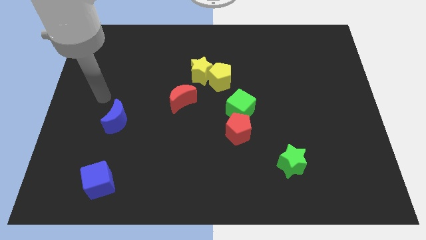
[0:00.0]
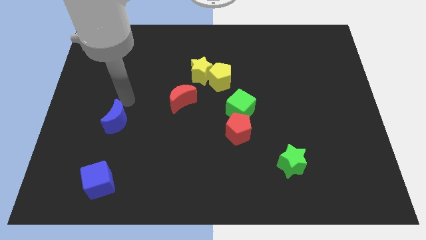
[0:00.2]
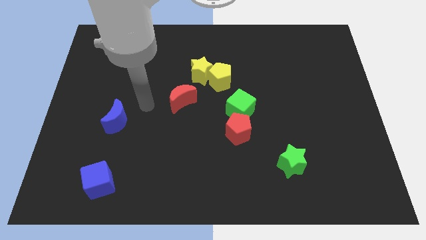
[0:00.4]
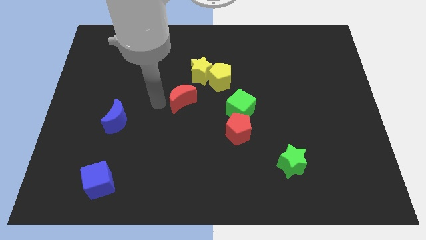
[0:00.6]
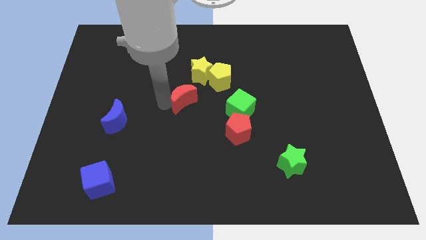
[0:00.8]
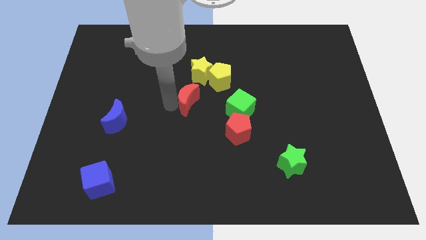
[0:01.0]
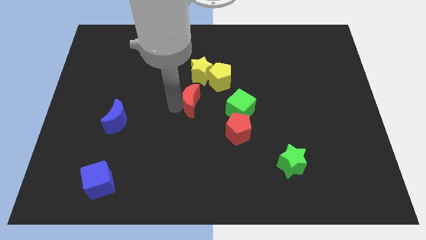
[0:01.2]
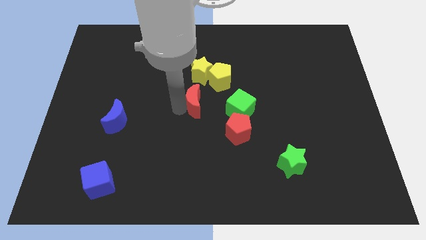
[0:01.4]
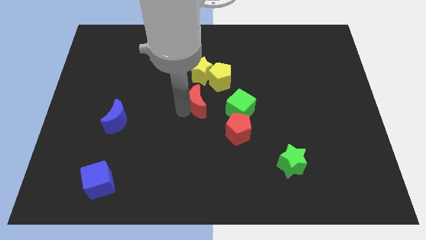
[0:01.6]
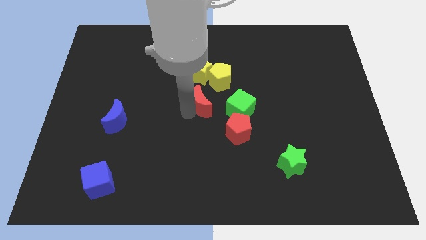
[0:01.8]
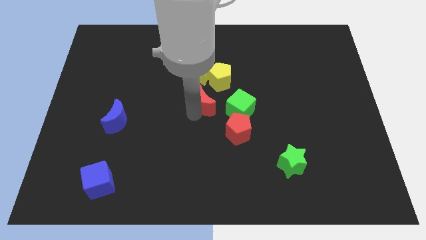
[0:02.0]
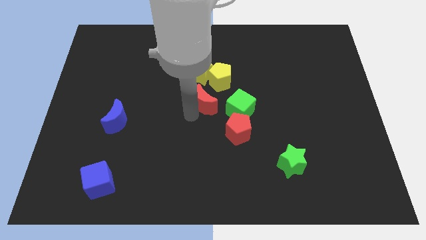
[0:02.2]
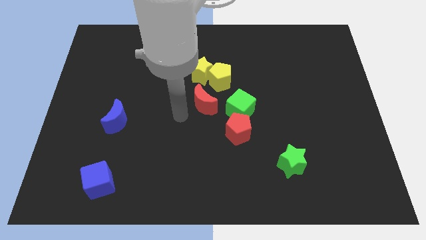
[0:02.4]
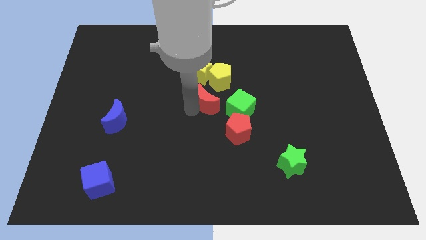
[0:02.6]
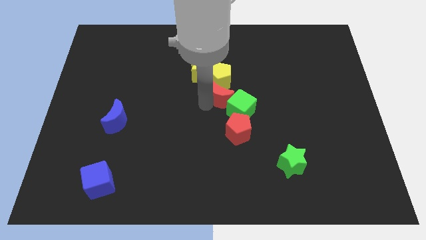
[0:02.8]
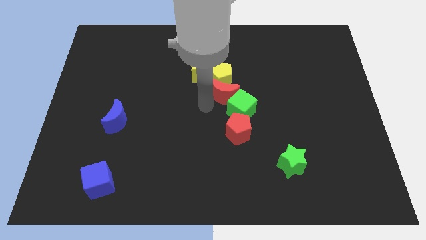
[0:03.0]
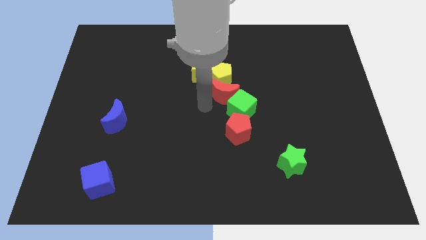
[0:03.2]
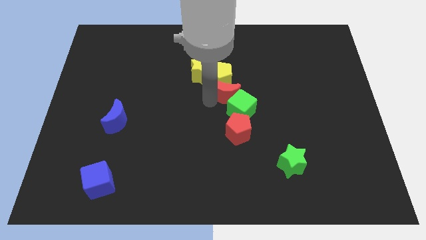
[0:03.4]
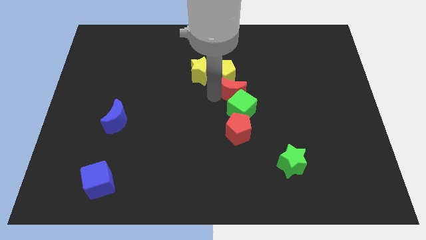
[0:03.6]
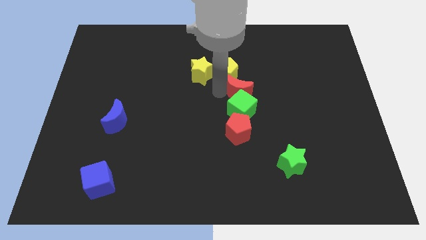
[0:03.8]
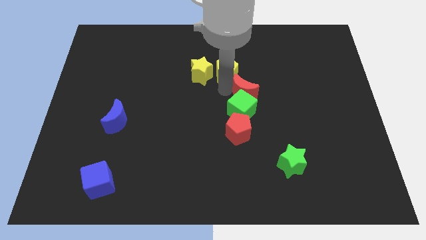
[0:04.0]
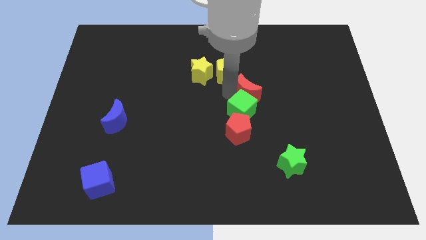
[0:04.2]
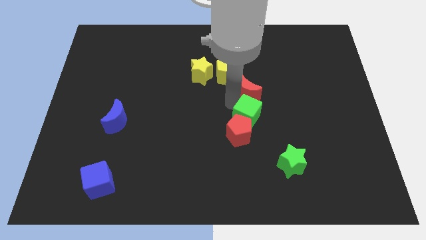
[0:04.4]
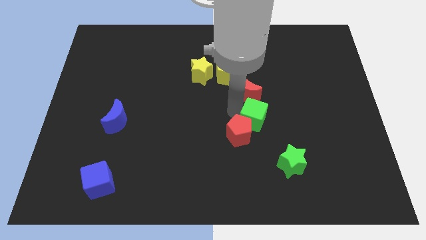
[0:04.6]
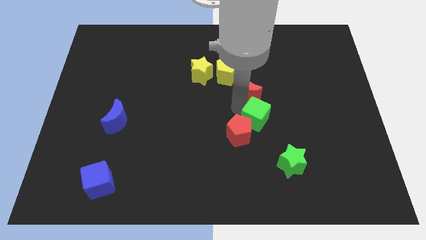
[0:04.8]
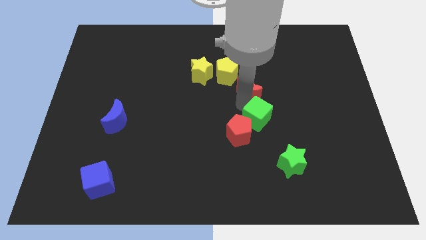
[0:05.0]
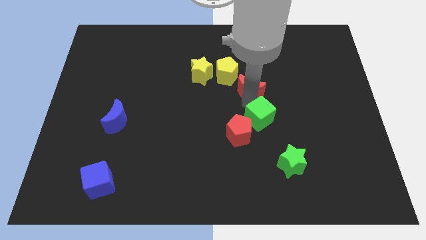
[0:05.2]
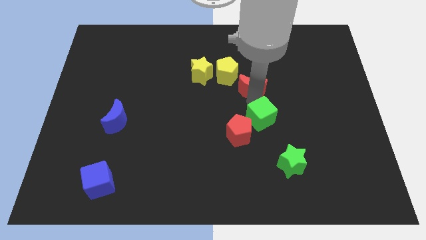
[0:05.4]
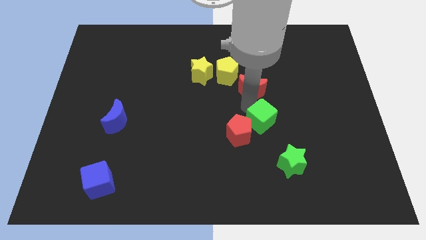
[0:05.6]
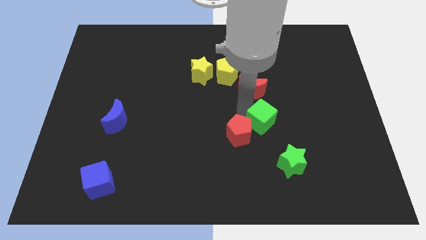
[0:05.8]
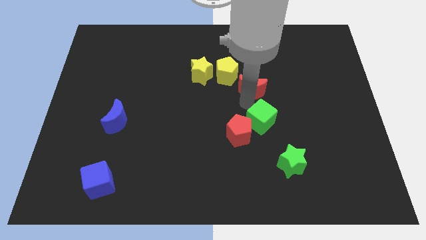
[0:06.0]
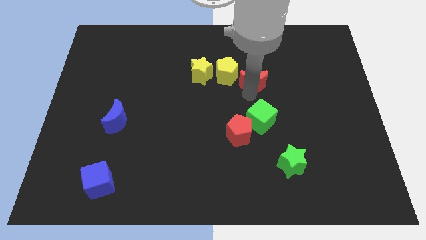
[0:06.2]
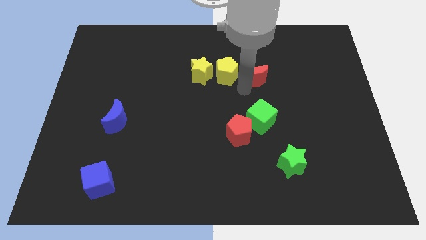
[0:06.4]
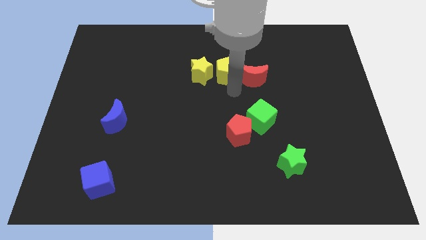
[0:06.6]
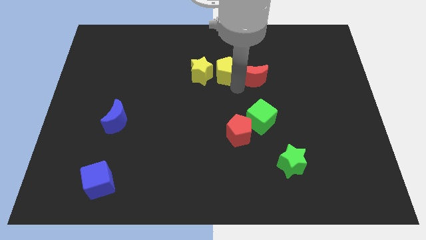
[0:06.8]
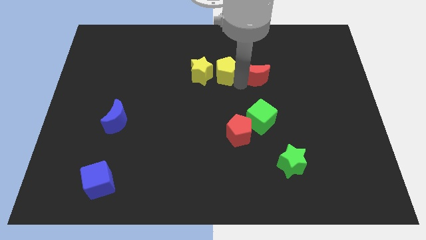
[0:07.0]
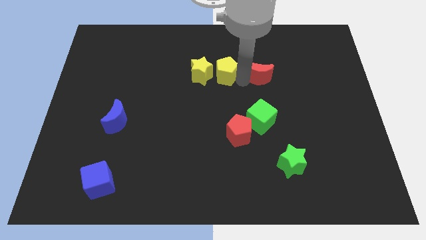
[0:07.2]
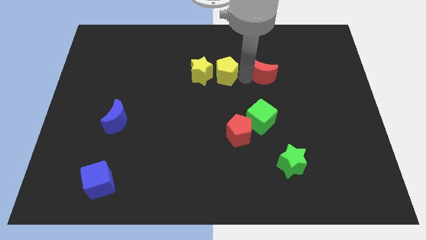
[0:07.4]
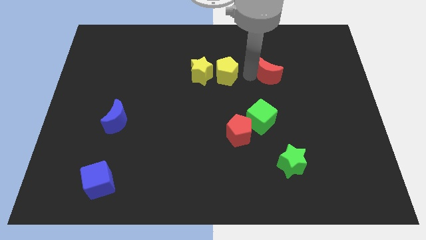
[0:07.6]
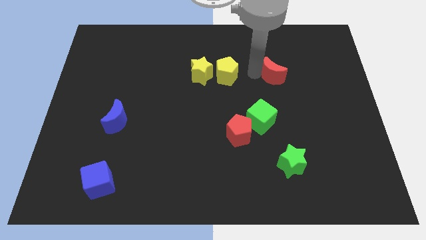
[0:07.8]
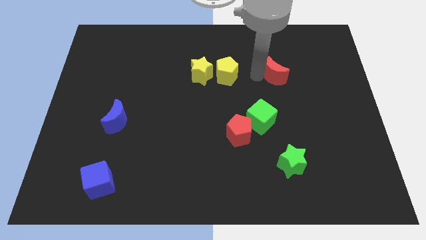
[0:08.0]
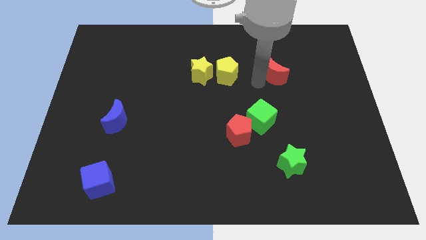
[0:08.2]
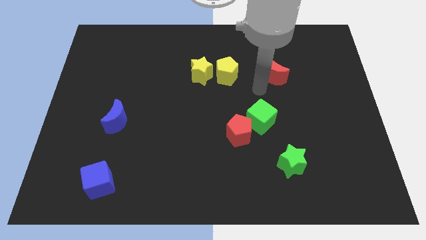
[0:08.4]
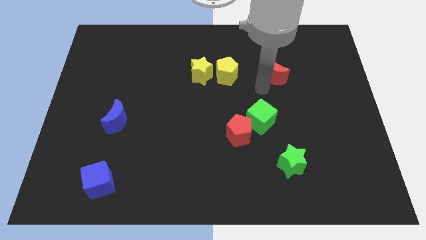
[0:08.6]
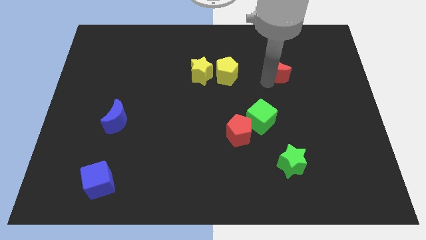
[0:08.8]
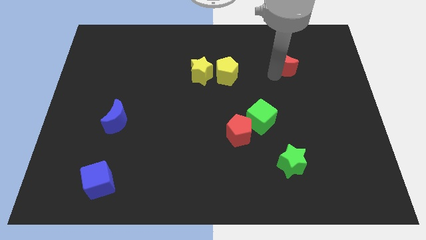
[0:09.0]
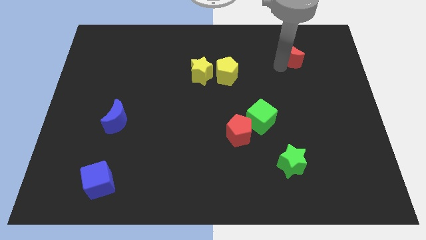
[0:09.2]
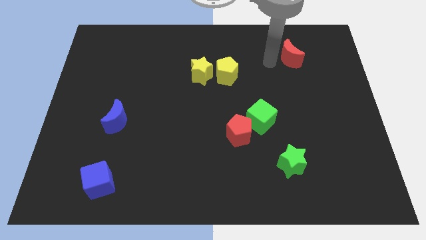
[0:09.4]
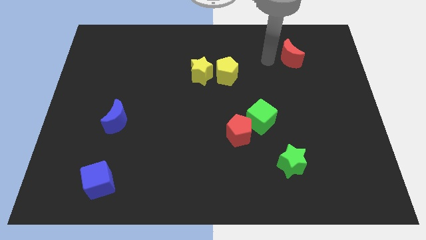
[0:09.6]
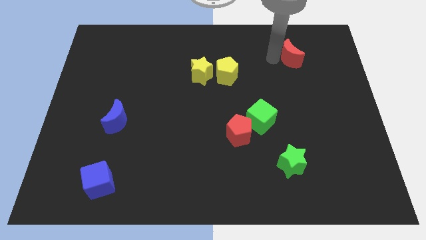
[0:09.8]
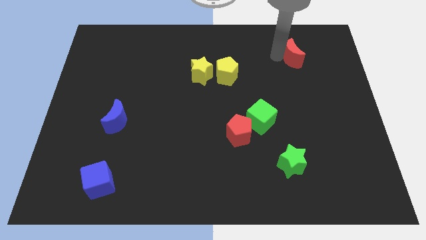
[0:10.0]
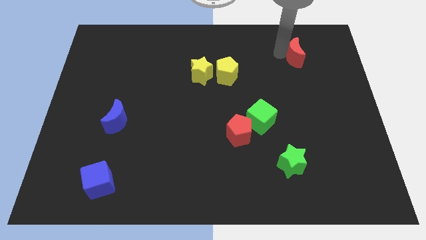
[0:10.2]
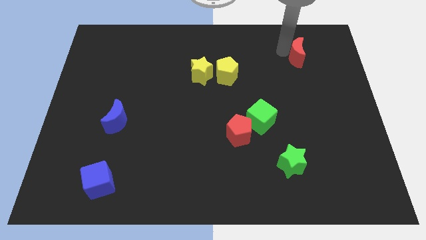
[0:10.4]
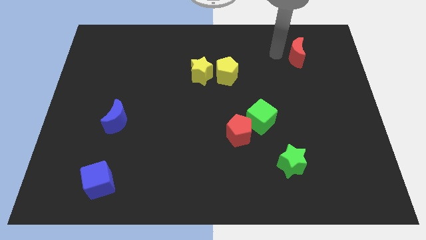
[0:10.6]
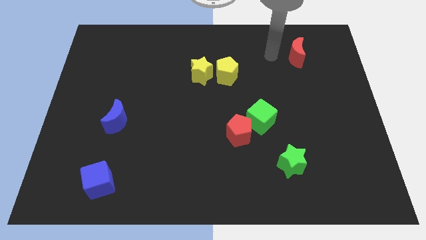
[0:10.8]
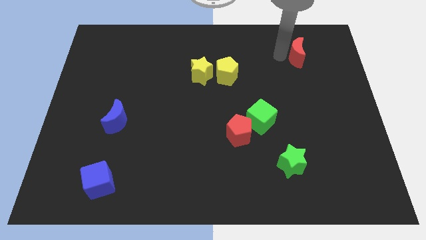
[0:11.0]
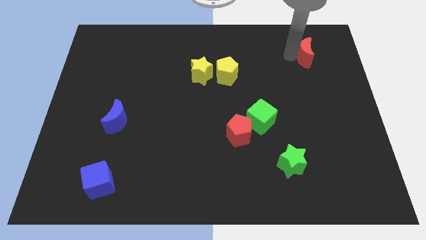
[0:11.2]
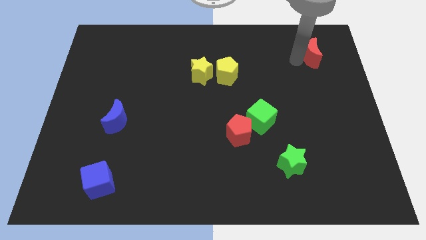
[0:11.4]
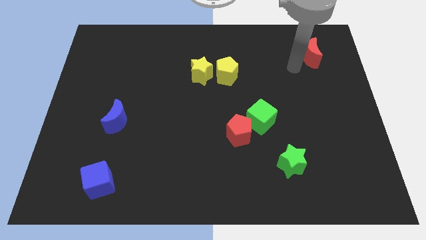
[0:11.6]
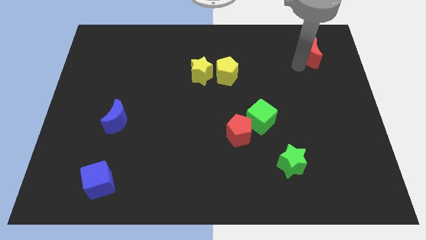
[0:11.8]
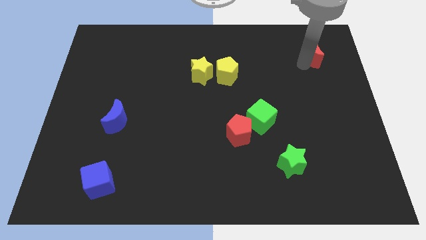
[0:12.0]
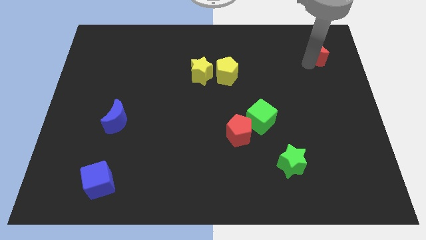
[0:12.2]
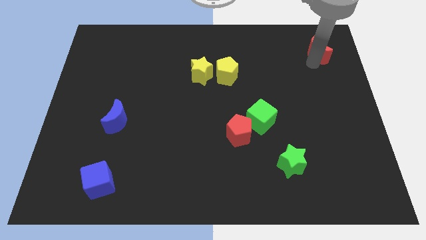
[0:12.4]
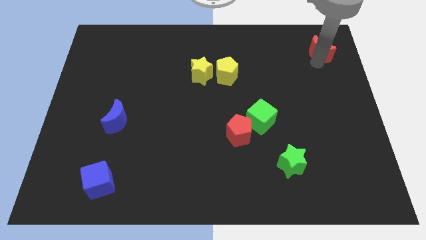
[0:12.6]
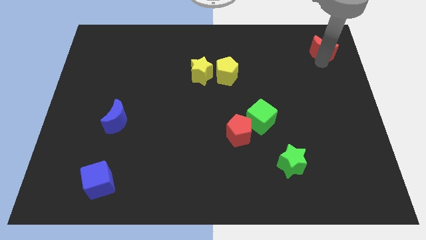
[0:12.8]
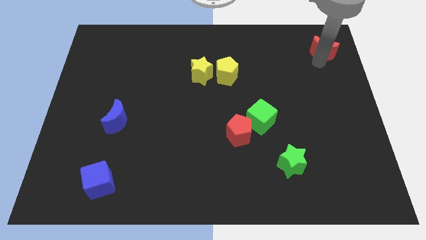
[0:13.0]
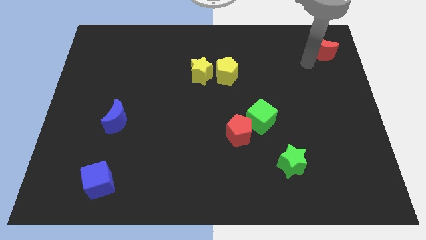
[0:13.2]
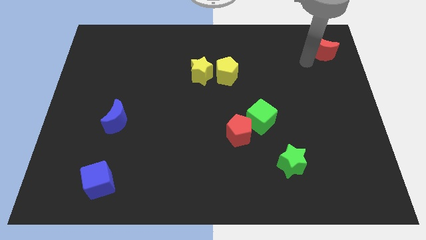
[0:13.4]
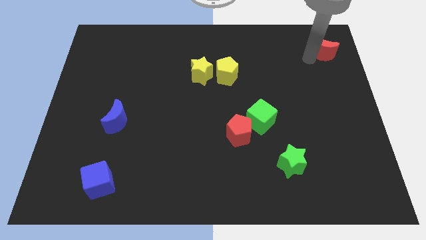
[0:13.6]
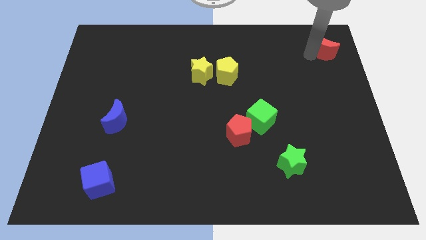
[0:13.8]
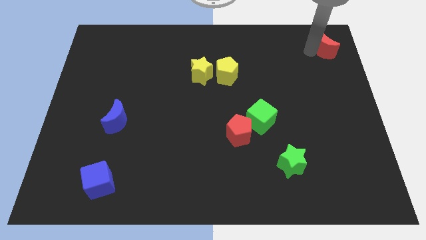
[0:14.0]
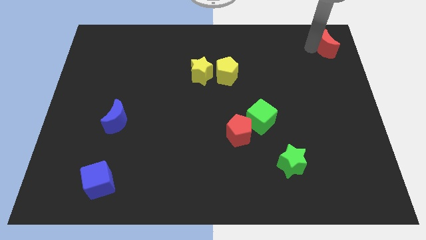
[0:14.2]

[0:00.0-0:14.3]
move the red moon to the top right

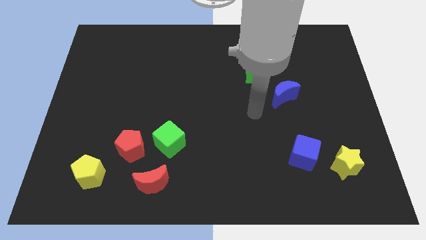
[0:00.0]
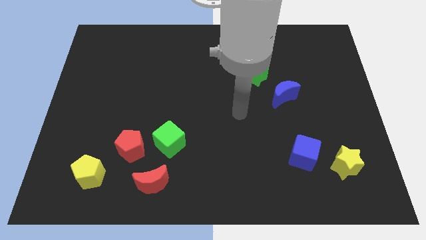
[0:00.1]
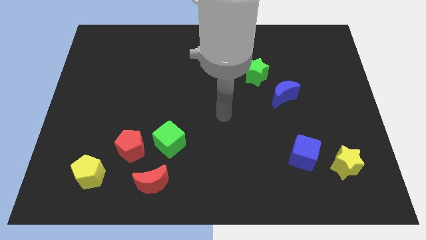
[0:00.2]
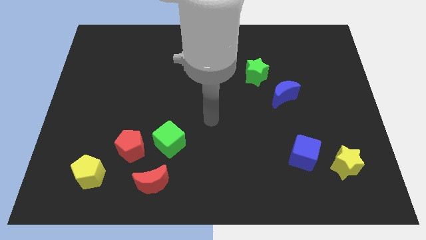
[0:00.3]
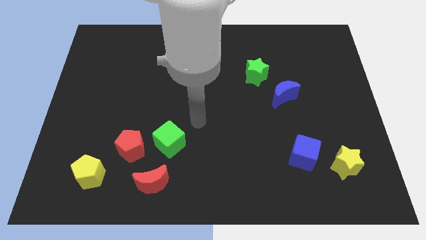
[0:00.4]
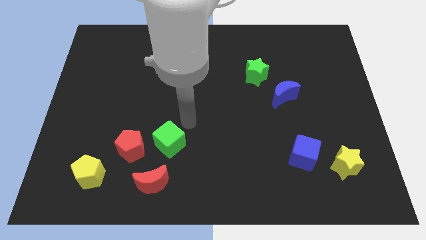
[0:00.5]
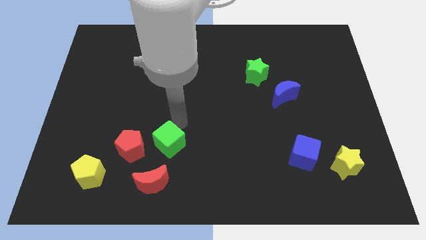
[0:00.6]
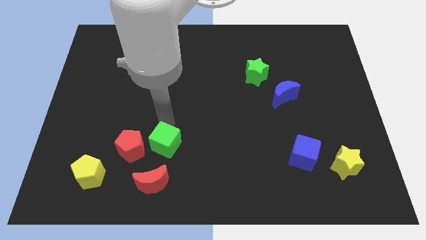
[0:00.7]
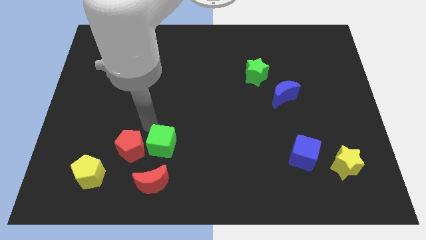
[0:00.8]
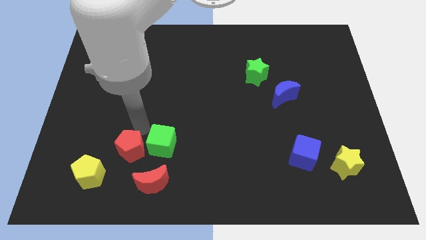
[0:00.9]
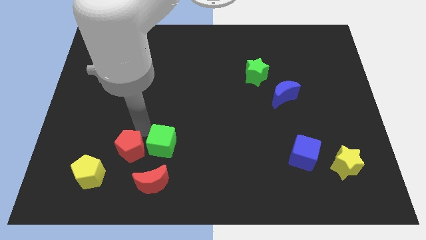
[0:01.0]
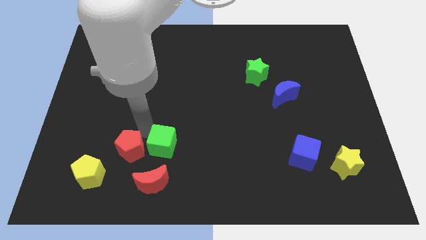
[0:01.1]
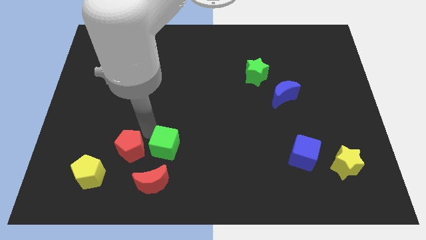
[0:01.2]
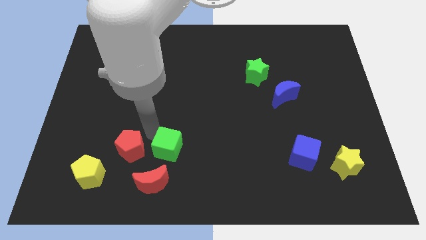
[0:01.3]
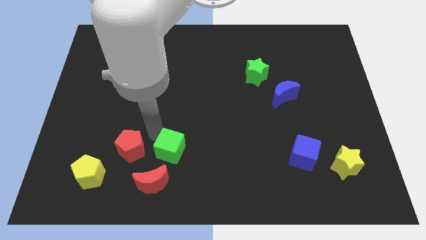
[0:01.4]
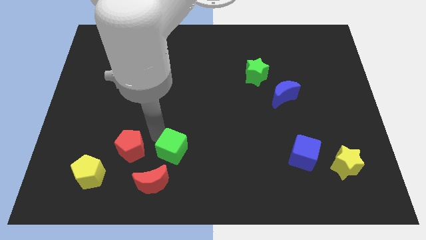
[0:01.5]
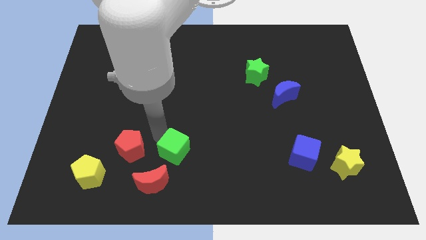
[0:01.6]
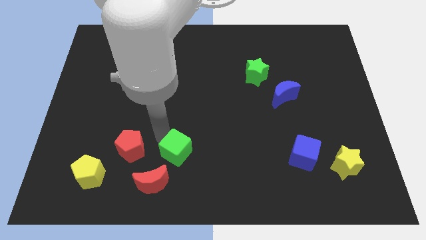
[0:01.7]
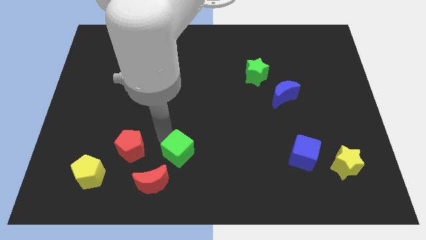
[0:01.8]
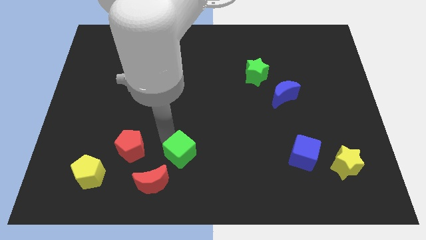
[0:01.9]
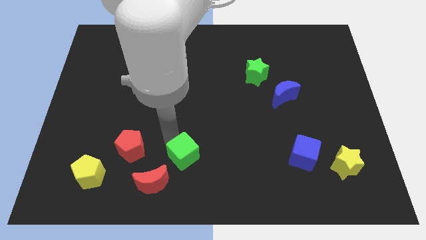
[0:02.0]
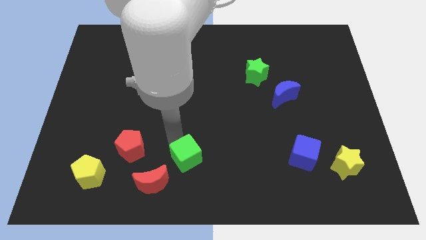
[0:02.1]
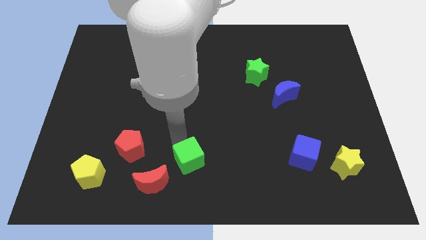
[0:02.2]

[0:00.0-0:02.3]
push the green cube to the bottom
